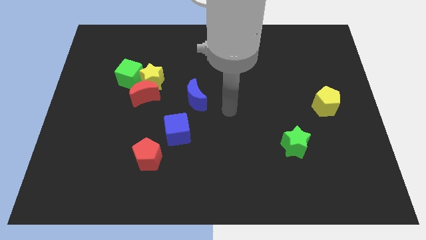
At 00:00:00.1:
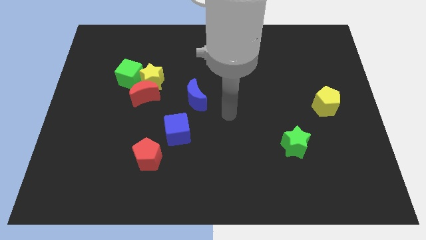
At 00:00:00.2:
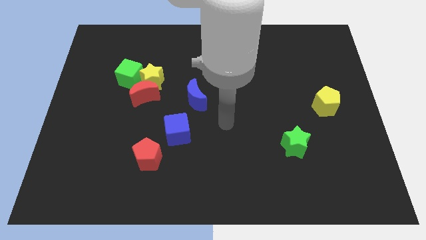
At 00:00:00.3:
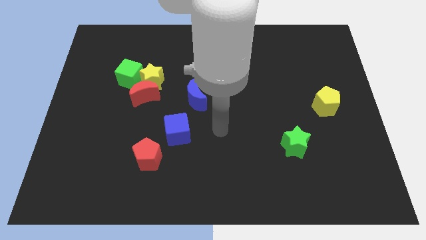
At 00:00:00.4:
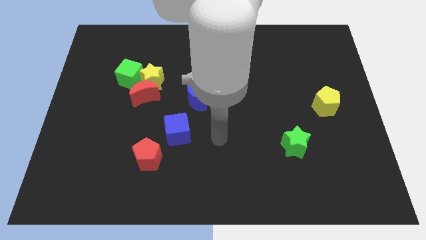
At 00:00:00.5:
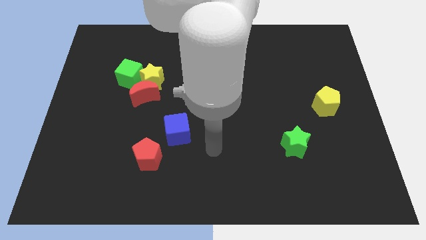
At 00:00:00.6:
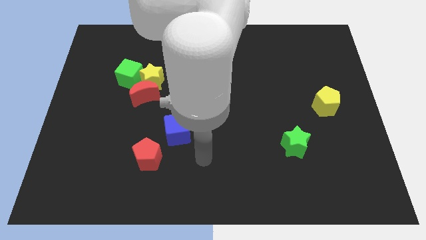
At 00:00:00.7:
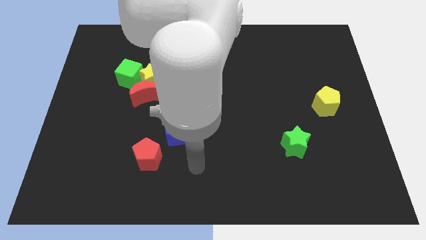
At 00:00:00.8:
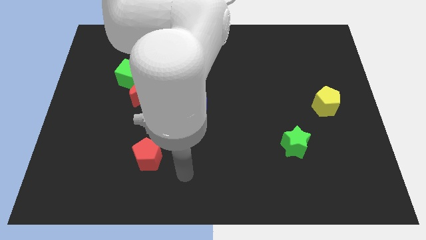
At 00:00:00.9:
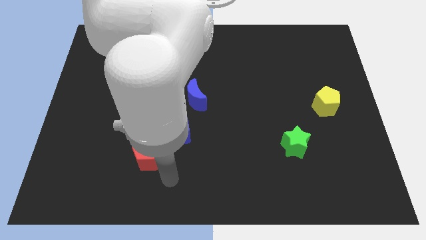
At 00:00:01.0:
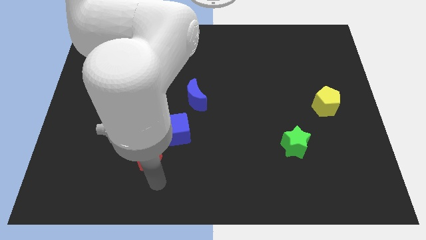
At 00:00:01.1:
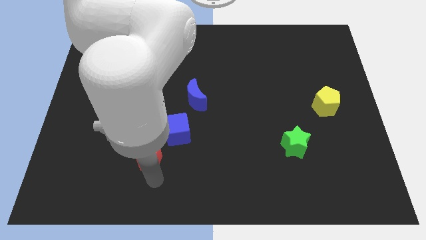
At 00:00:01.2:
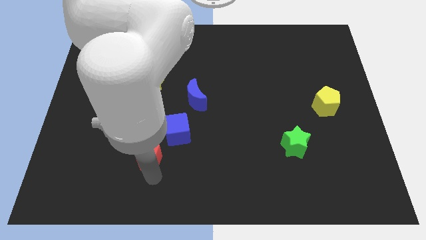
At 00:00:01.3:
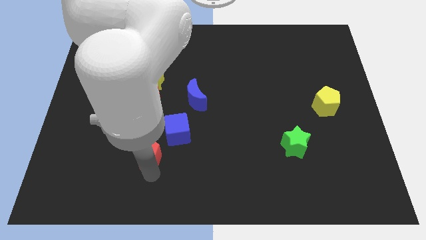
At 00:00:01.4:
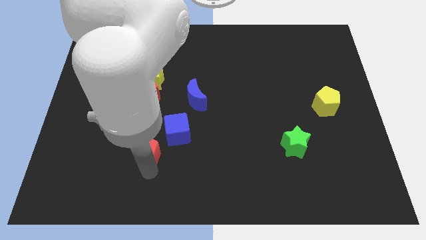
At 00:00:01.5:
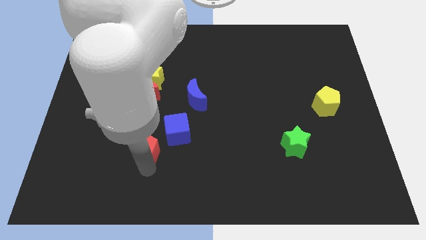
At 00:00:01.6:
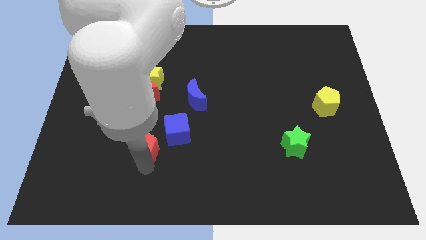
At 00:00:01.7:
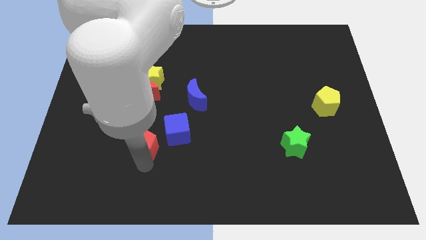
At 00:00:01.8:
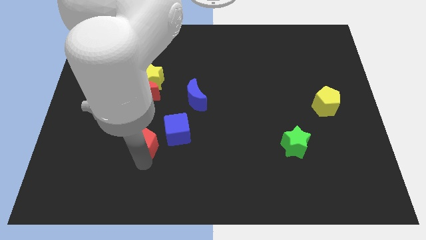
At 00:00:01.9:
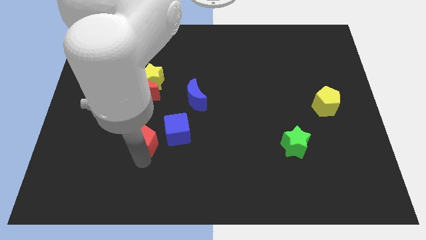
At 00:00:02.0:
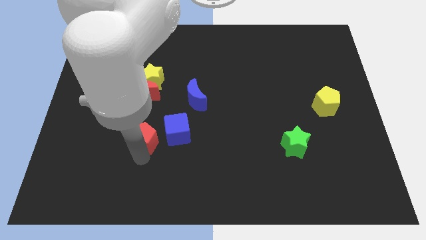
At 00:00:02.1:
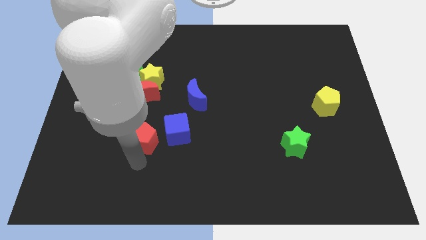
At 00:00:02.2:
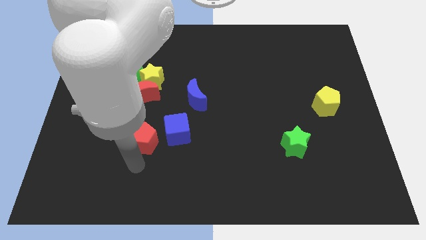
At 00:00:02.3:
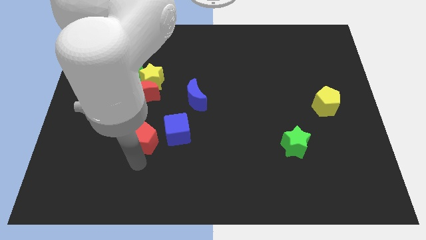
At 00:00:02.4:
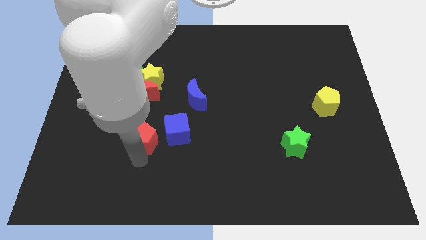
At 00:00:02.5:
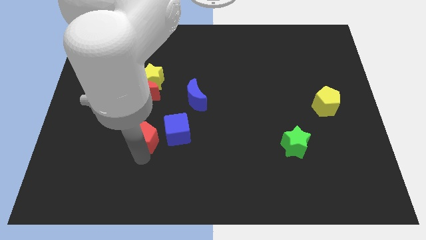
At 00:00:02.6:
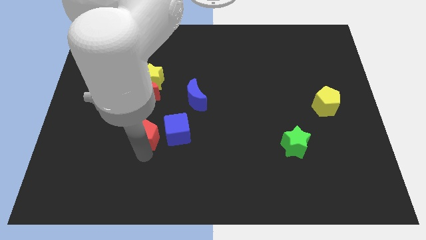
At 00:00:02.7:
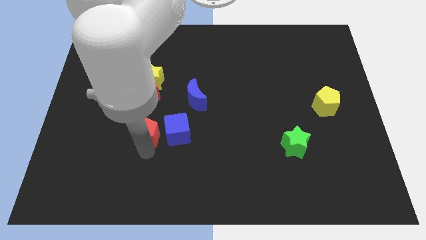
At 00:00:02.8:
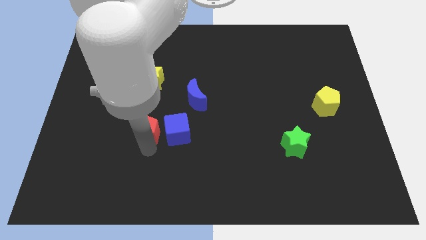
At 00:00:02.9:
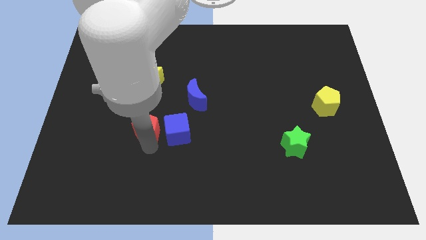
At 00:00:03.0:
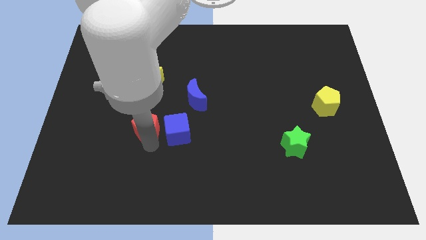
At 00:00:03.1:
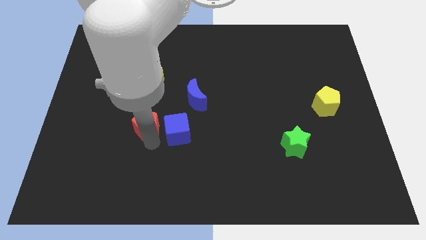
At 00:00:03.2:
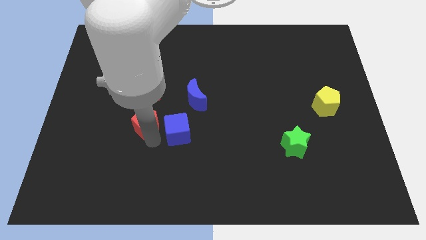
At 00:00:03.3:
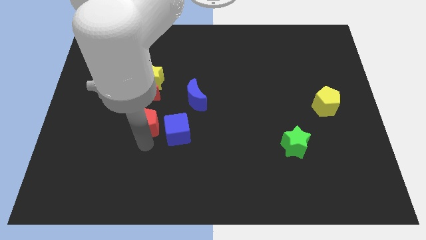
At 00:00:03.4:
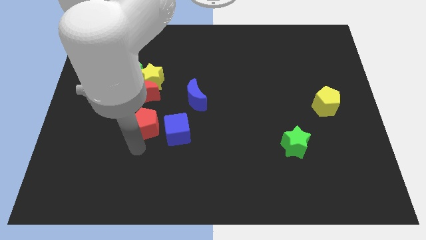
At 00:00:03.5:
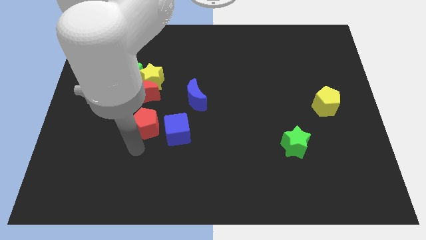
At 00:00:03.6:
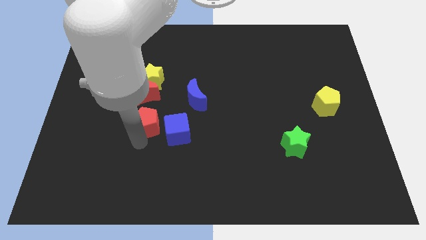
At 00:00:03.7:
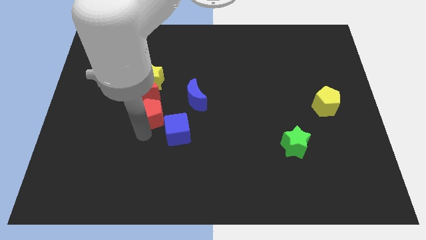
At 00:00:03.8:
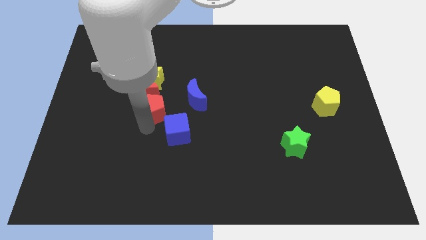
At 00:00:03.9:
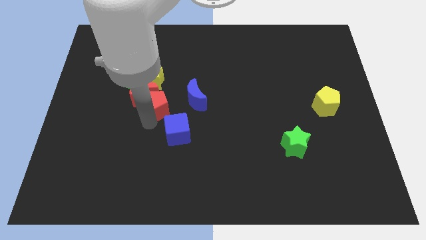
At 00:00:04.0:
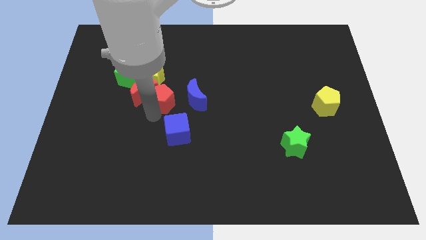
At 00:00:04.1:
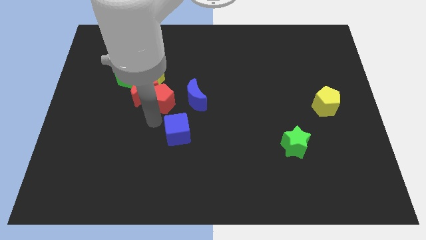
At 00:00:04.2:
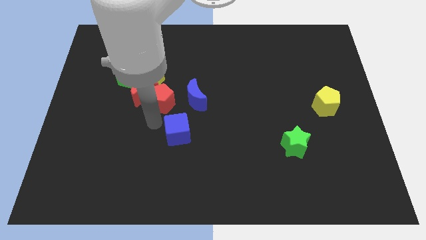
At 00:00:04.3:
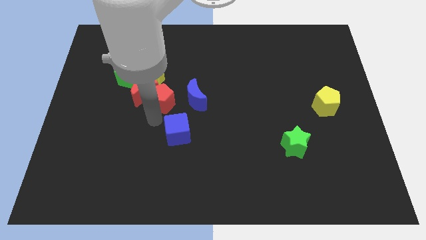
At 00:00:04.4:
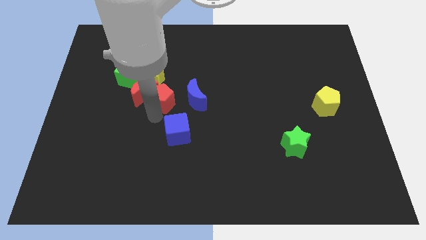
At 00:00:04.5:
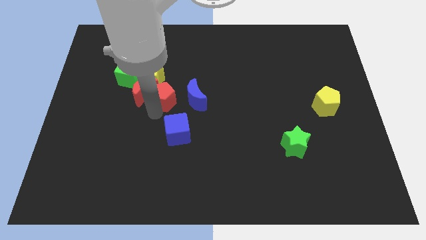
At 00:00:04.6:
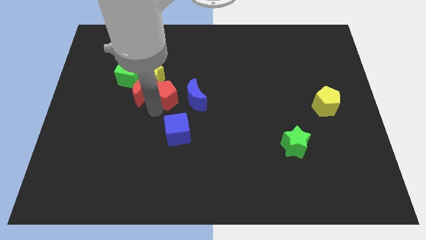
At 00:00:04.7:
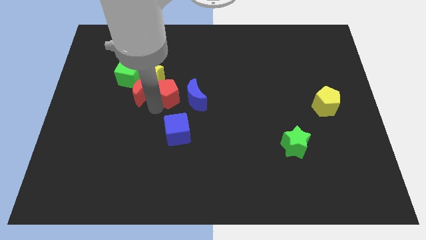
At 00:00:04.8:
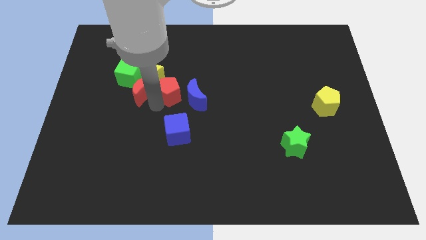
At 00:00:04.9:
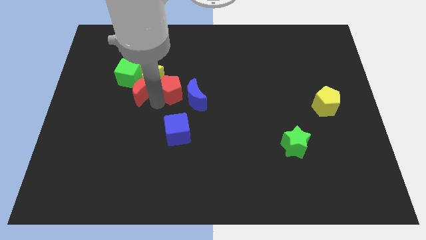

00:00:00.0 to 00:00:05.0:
put the red pentagon to the right side of the green cube

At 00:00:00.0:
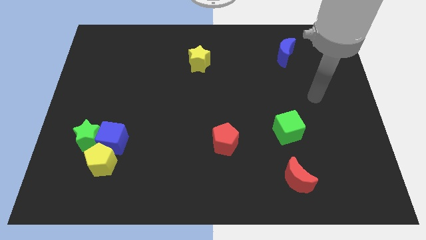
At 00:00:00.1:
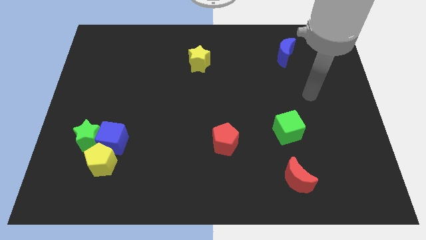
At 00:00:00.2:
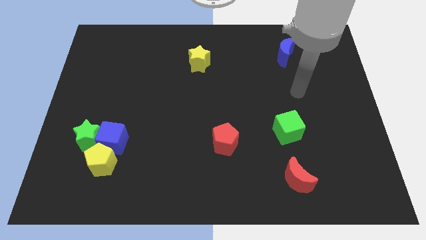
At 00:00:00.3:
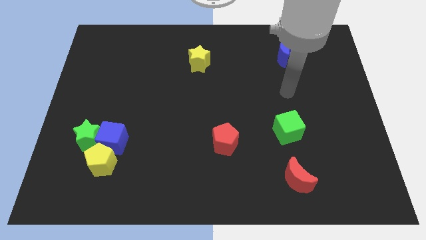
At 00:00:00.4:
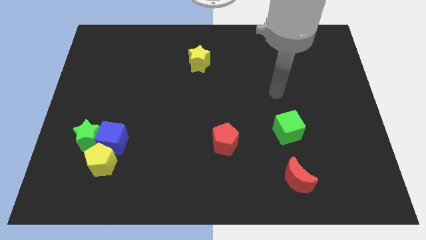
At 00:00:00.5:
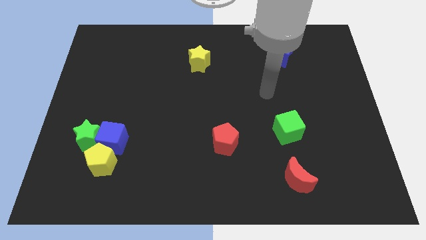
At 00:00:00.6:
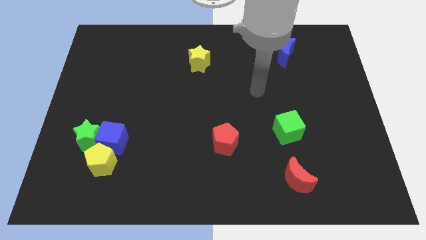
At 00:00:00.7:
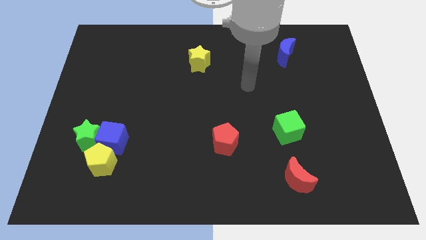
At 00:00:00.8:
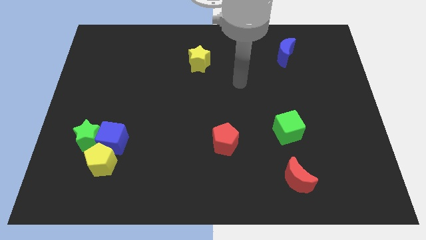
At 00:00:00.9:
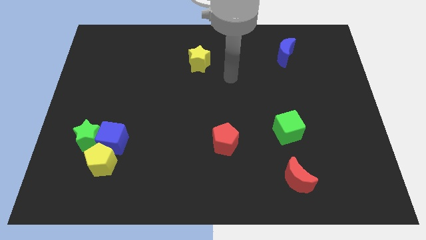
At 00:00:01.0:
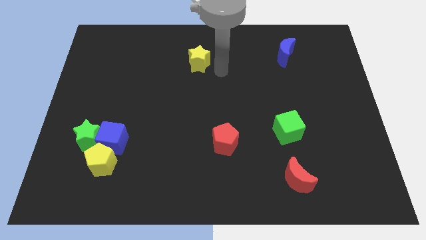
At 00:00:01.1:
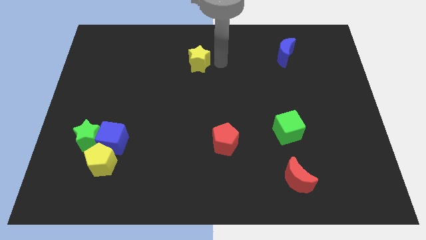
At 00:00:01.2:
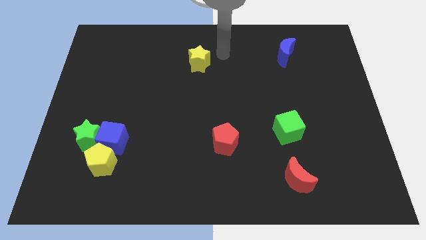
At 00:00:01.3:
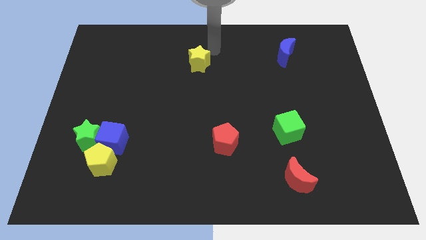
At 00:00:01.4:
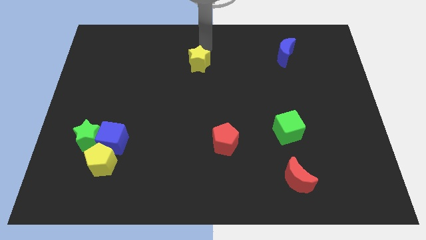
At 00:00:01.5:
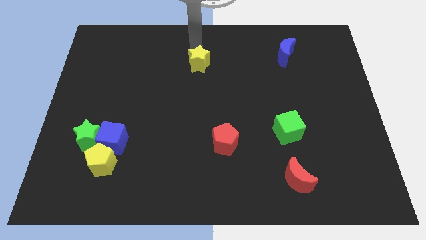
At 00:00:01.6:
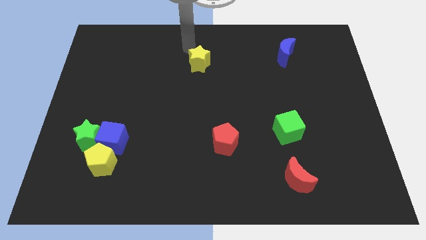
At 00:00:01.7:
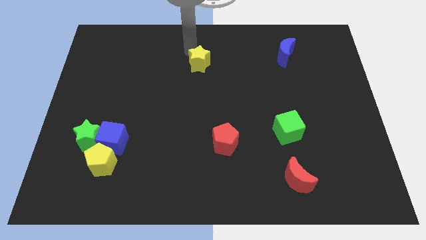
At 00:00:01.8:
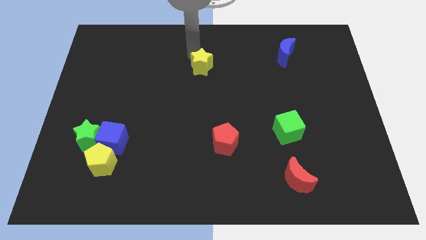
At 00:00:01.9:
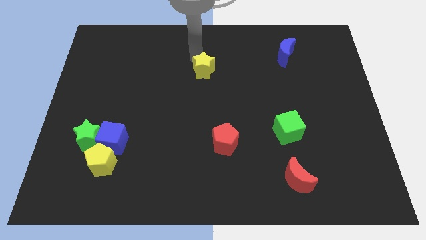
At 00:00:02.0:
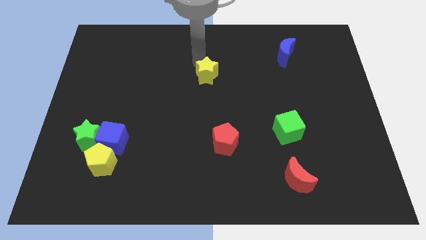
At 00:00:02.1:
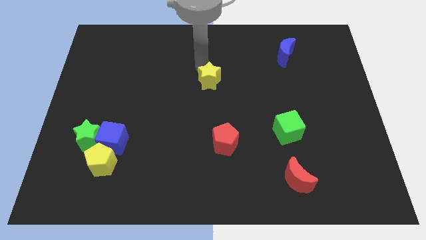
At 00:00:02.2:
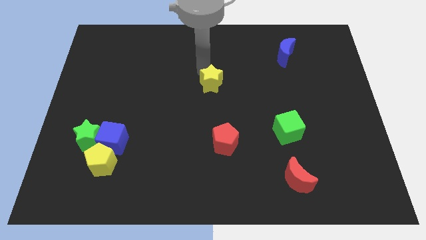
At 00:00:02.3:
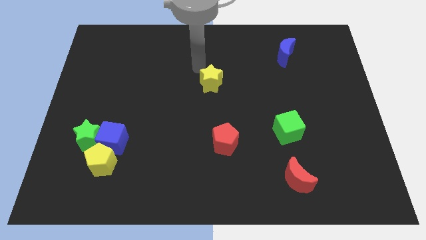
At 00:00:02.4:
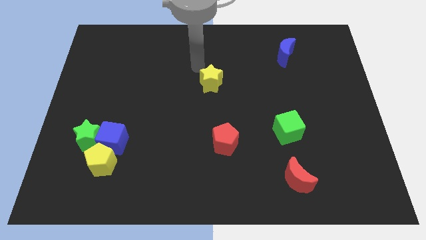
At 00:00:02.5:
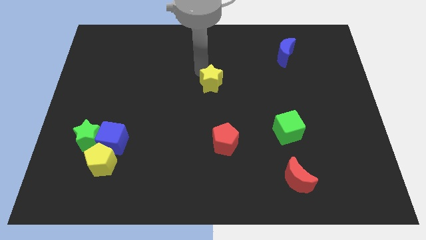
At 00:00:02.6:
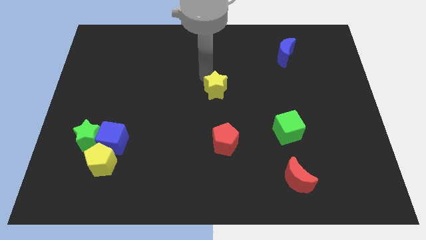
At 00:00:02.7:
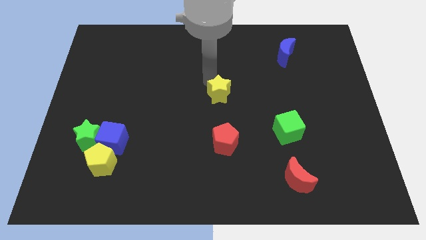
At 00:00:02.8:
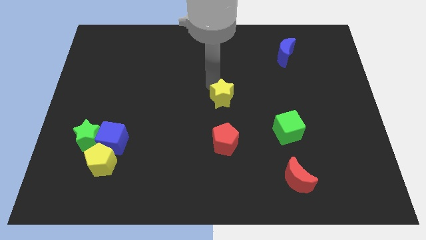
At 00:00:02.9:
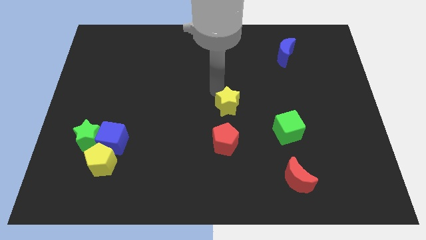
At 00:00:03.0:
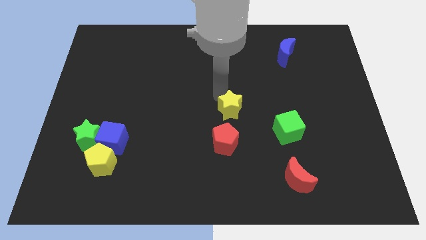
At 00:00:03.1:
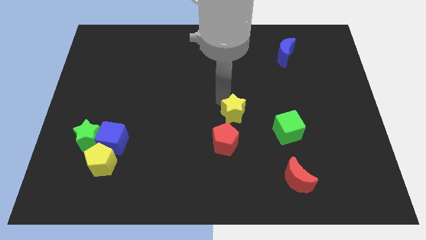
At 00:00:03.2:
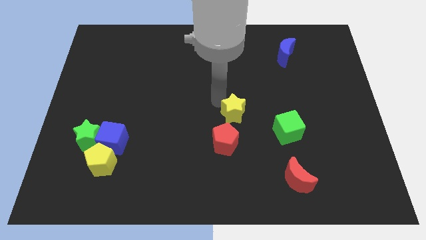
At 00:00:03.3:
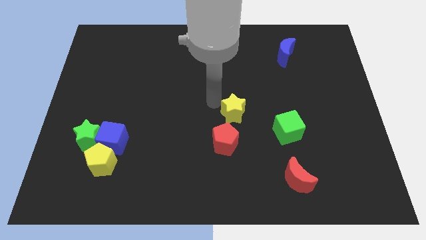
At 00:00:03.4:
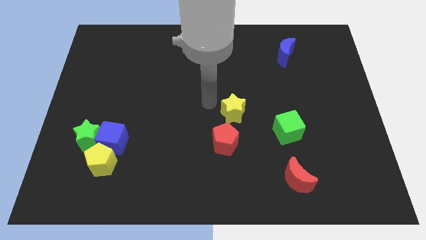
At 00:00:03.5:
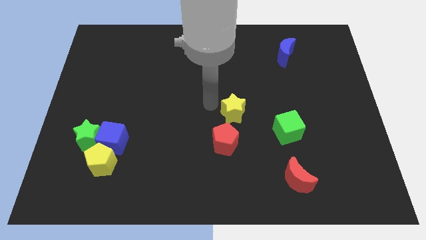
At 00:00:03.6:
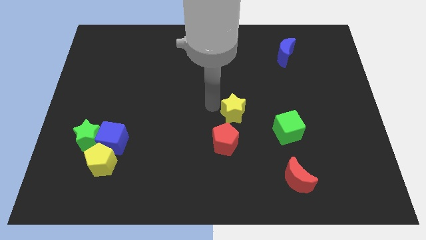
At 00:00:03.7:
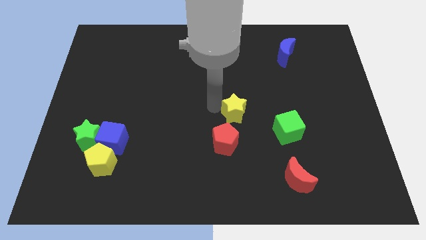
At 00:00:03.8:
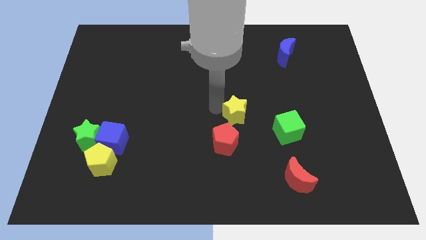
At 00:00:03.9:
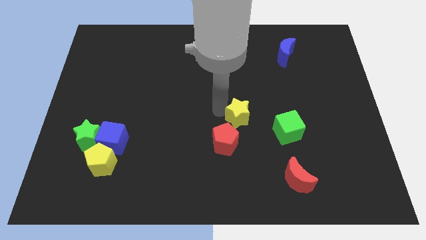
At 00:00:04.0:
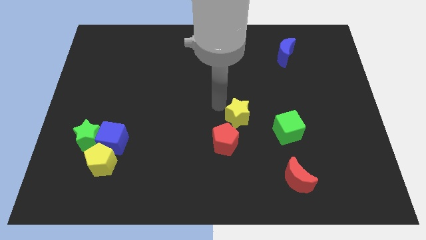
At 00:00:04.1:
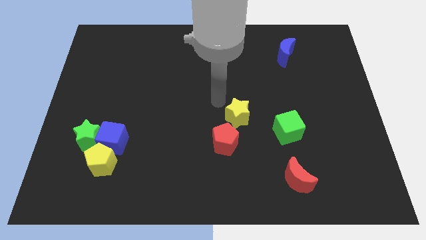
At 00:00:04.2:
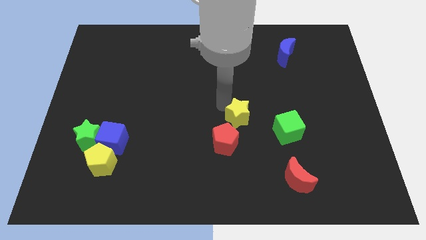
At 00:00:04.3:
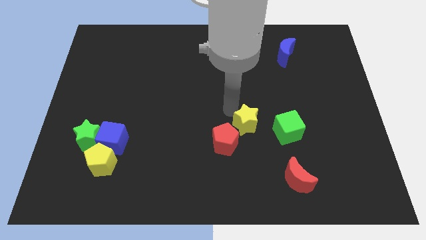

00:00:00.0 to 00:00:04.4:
move the yellow star right of the red pentagon
